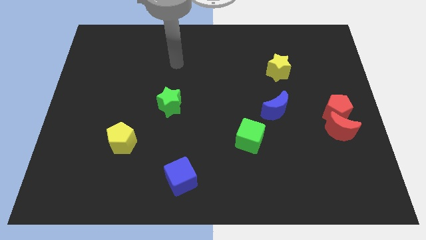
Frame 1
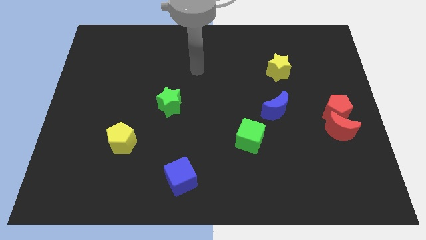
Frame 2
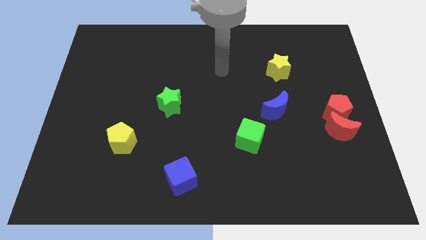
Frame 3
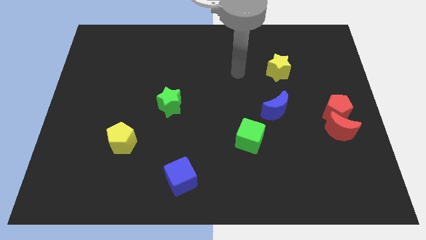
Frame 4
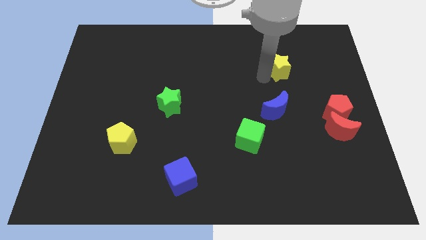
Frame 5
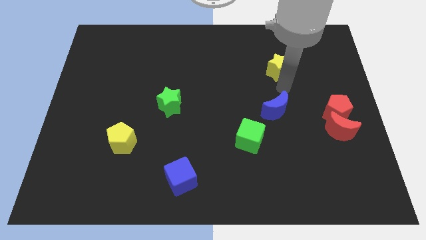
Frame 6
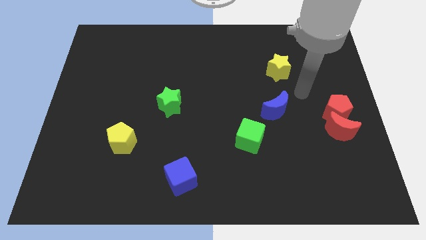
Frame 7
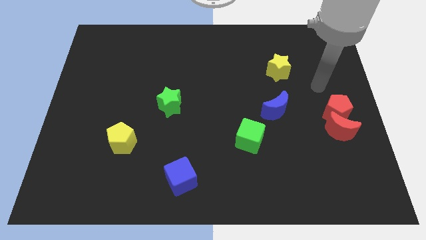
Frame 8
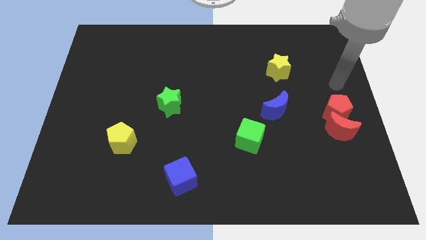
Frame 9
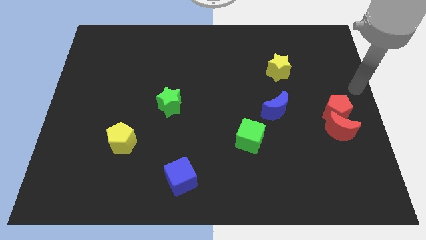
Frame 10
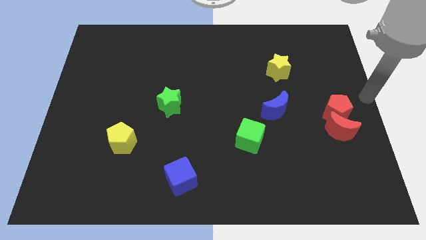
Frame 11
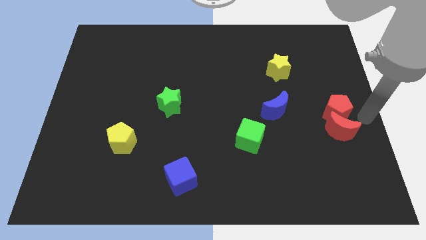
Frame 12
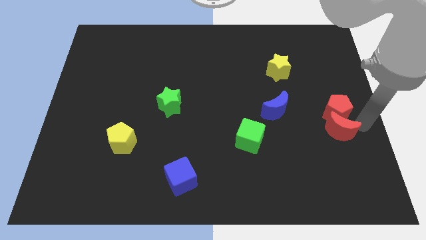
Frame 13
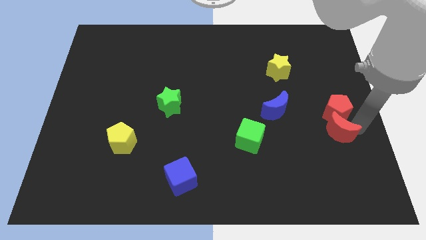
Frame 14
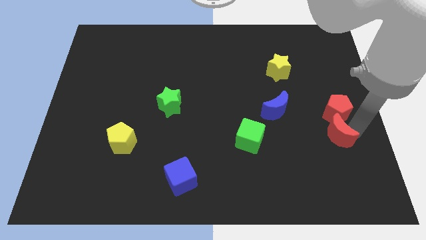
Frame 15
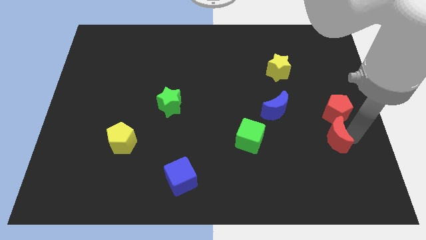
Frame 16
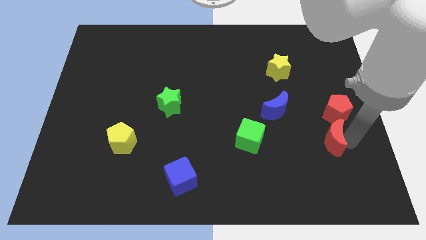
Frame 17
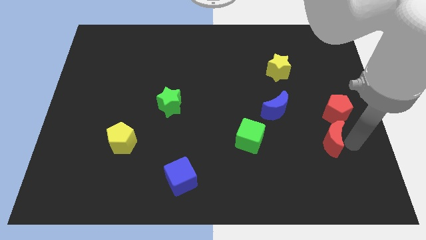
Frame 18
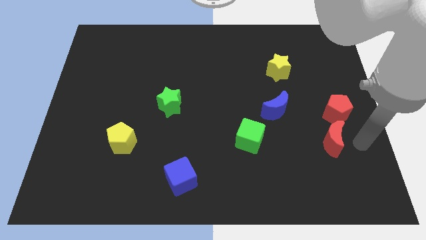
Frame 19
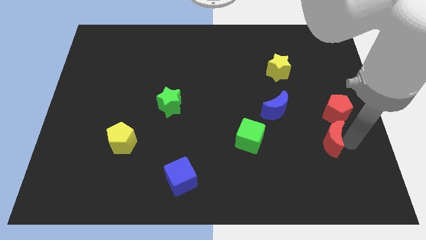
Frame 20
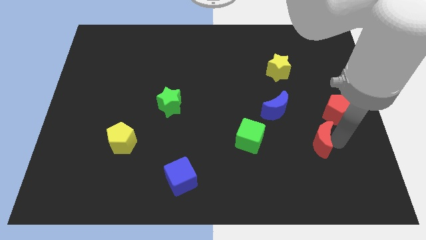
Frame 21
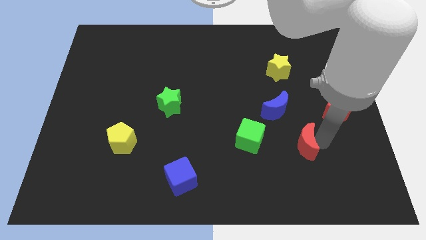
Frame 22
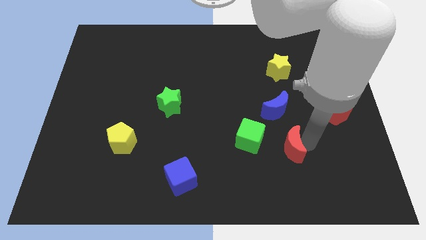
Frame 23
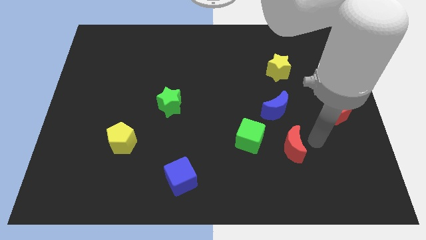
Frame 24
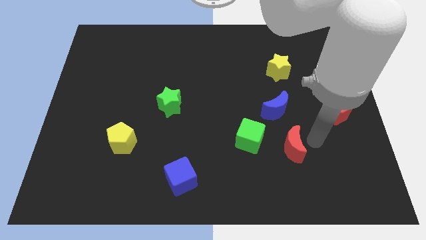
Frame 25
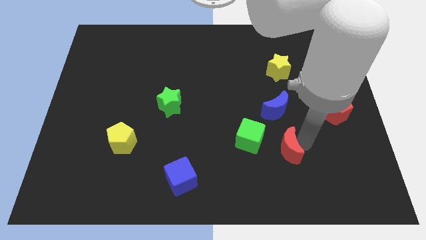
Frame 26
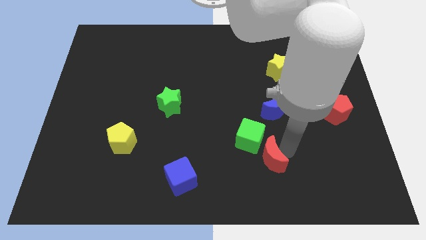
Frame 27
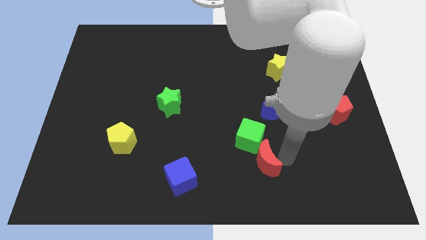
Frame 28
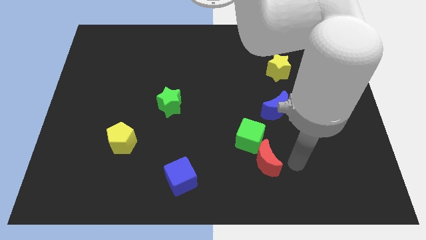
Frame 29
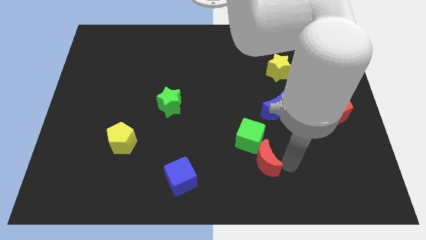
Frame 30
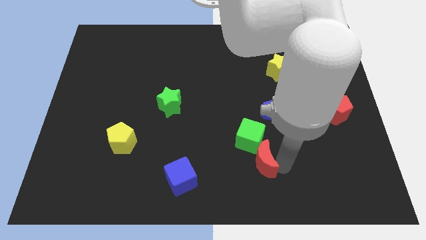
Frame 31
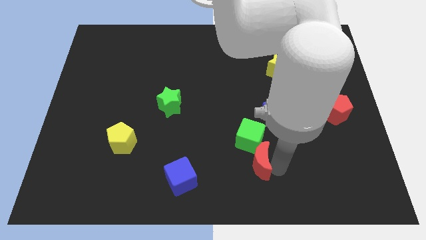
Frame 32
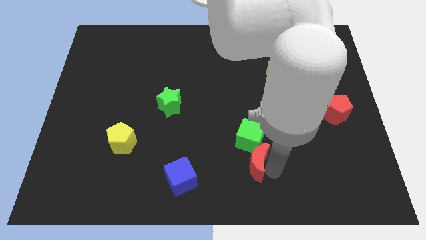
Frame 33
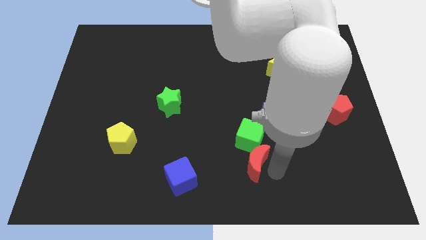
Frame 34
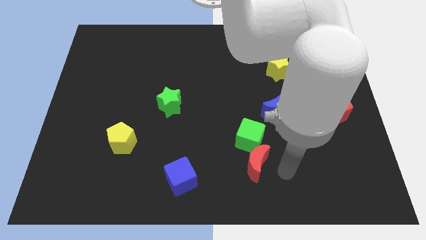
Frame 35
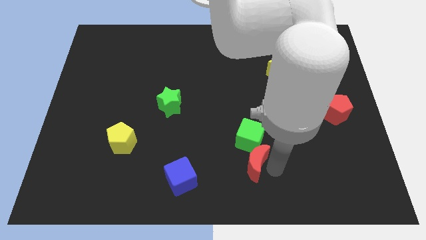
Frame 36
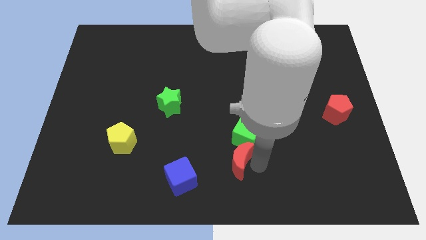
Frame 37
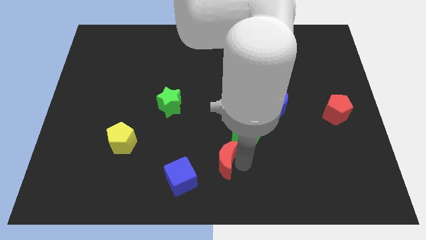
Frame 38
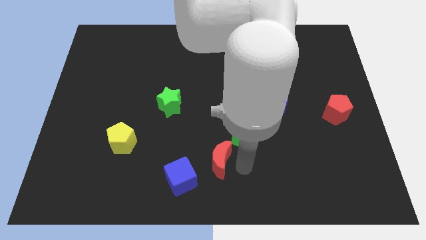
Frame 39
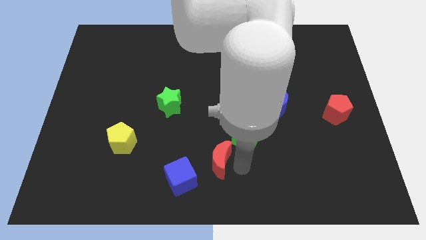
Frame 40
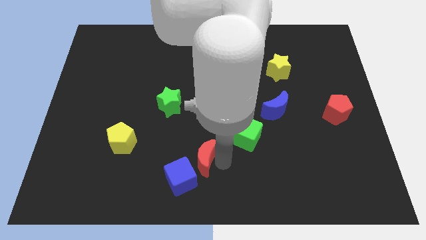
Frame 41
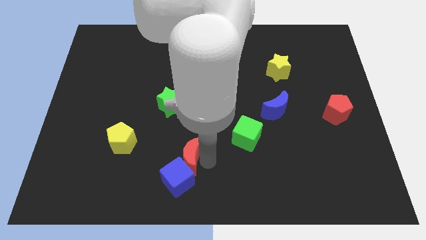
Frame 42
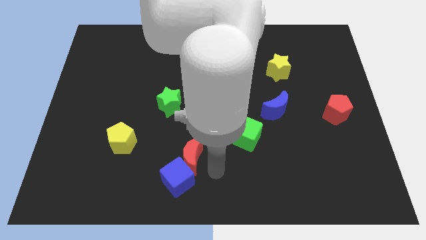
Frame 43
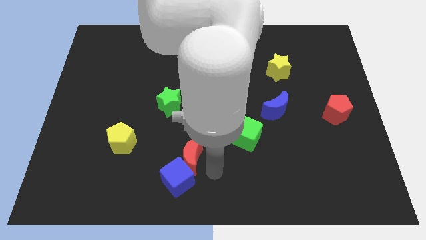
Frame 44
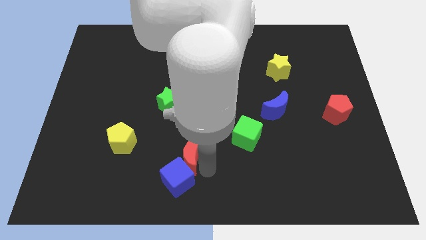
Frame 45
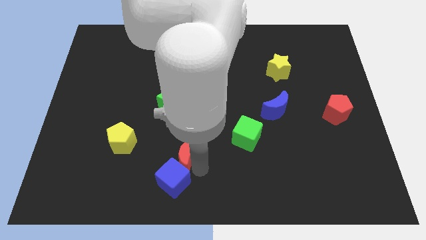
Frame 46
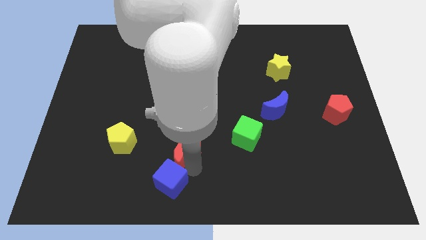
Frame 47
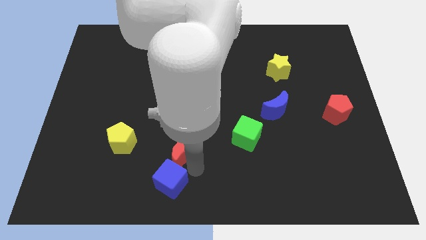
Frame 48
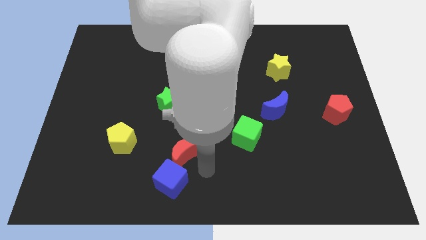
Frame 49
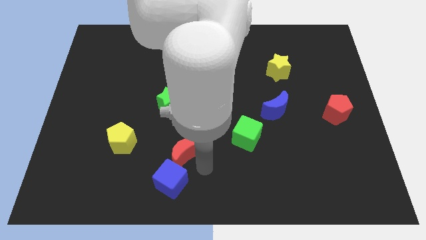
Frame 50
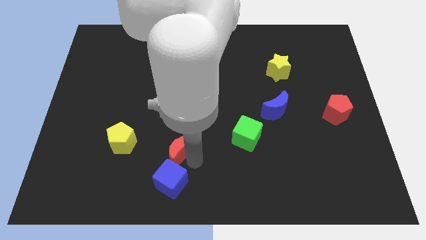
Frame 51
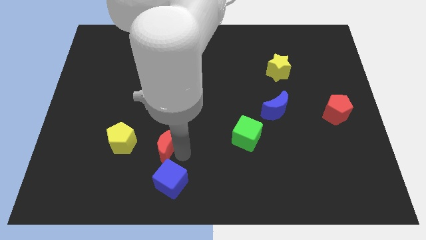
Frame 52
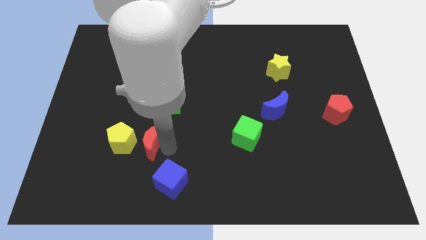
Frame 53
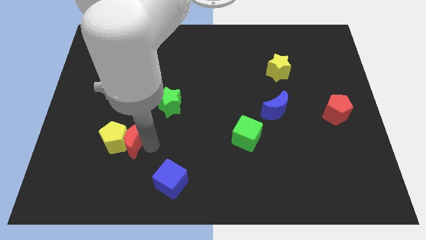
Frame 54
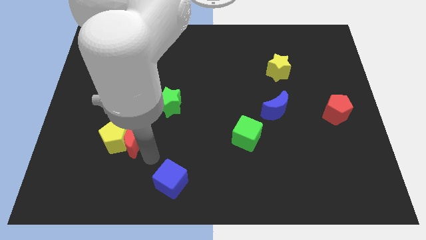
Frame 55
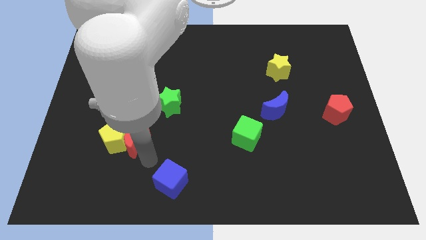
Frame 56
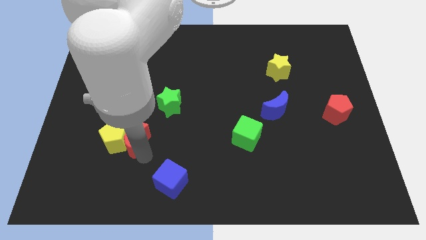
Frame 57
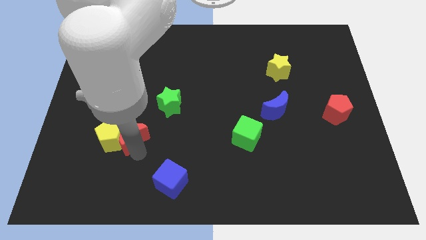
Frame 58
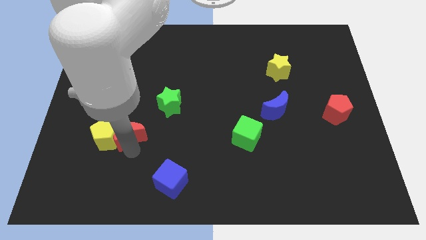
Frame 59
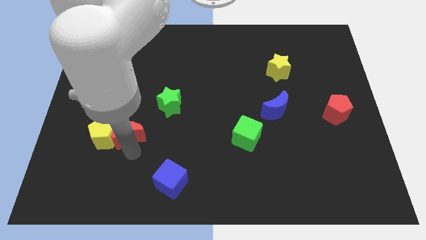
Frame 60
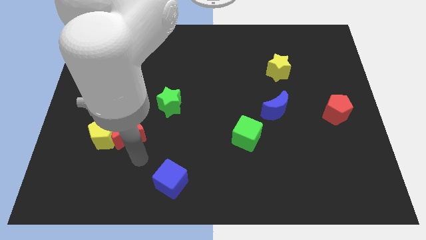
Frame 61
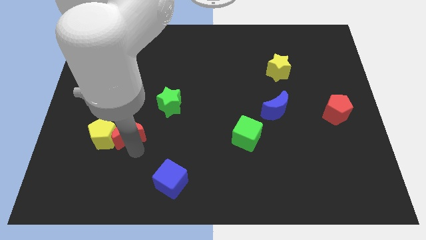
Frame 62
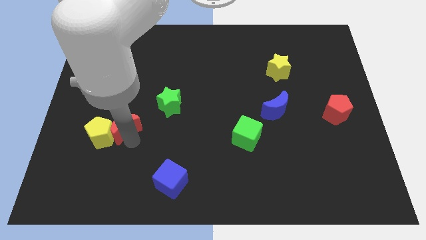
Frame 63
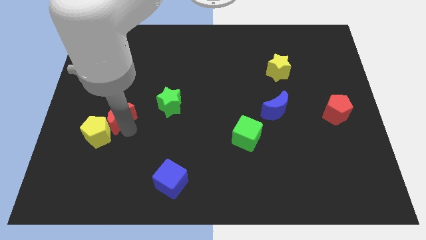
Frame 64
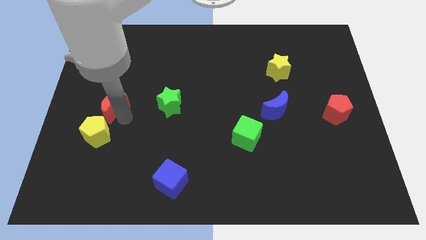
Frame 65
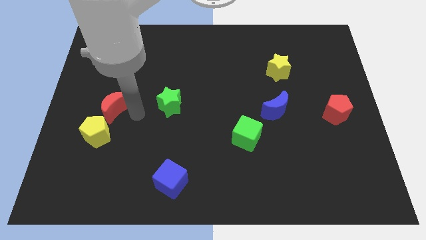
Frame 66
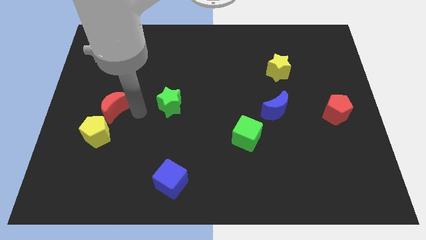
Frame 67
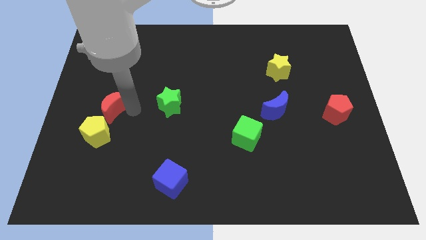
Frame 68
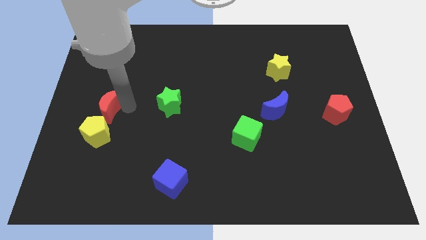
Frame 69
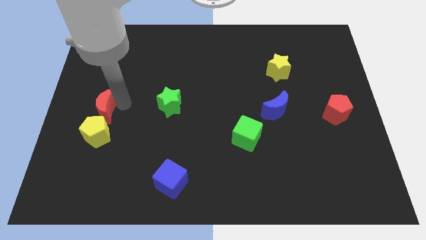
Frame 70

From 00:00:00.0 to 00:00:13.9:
move the red moon to the center left

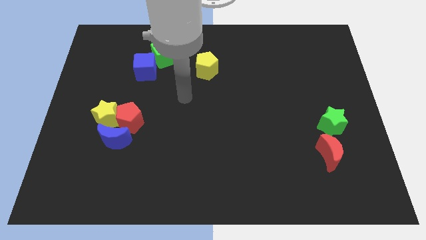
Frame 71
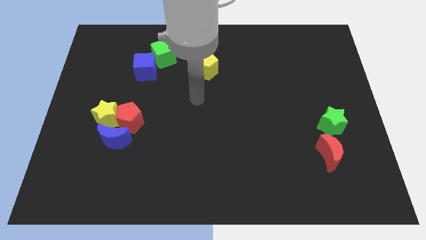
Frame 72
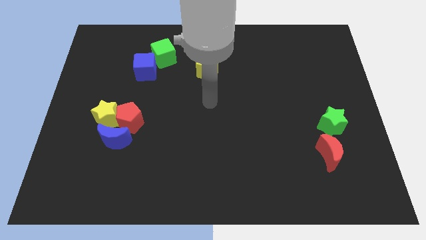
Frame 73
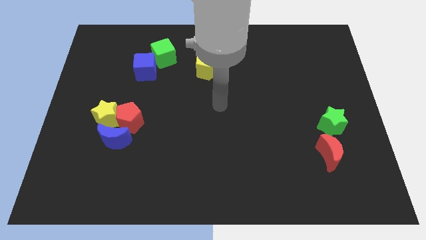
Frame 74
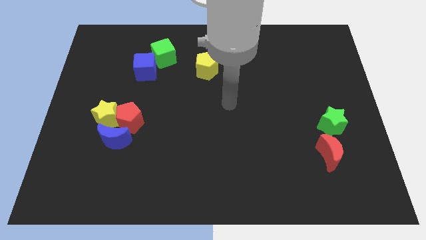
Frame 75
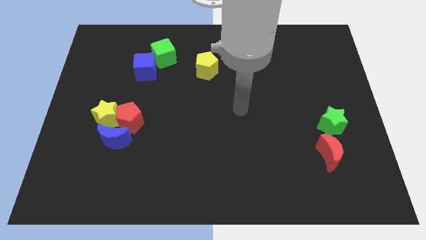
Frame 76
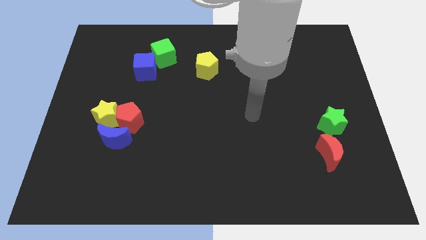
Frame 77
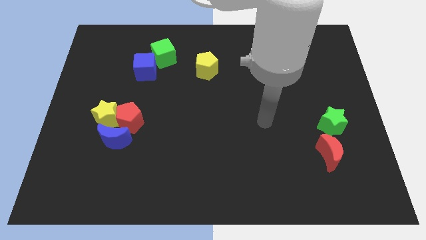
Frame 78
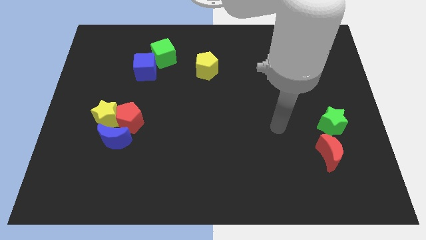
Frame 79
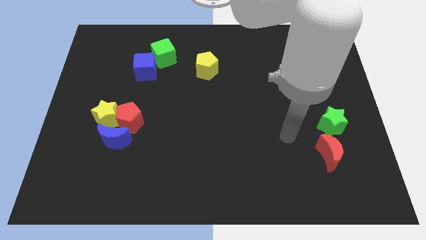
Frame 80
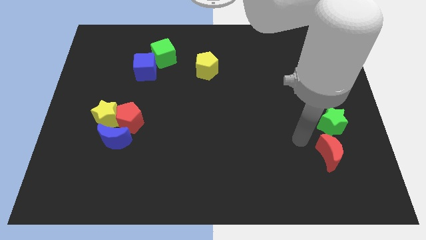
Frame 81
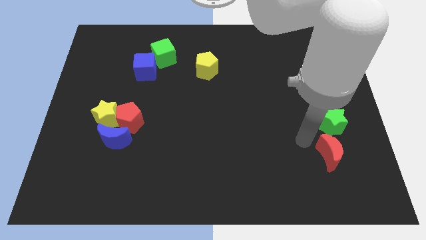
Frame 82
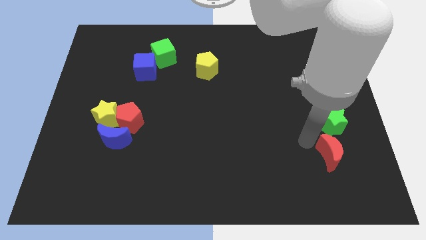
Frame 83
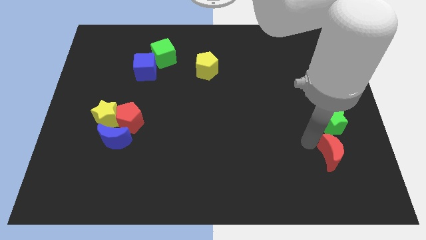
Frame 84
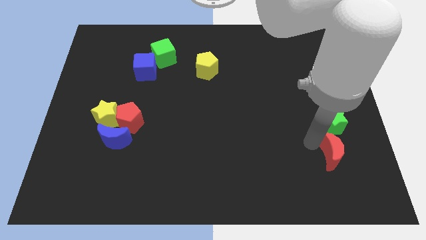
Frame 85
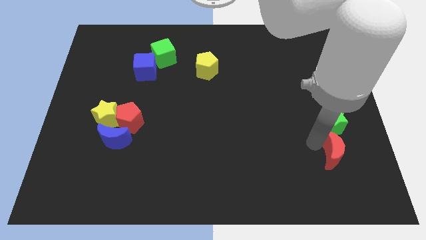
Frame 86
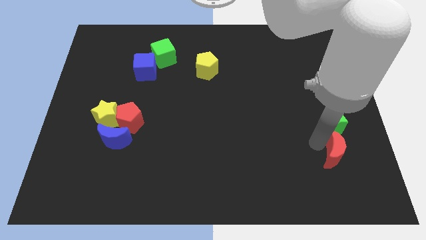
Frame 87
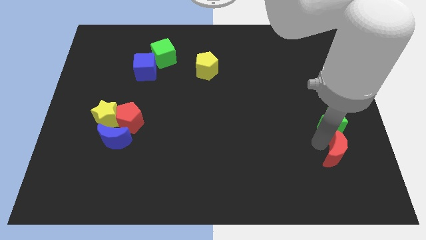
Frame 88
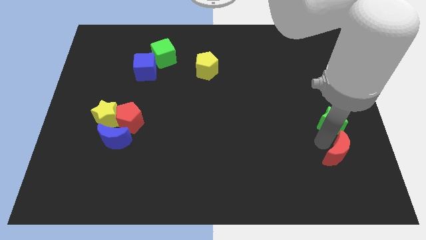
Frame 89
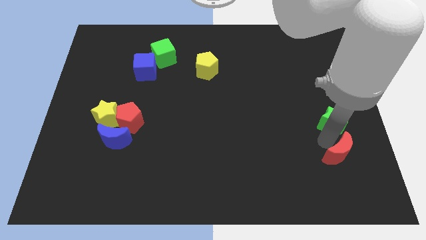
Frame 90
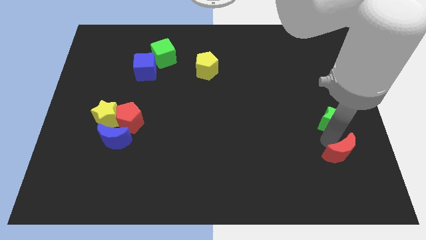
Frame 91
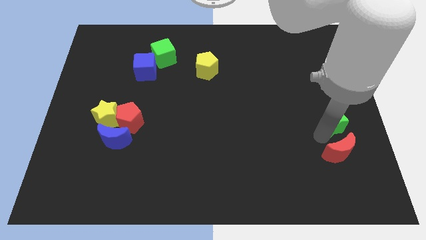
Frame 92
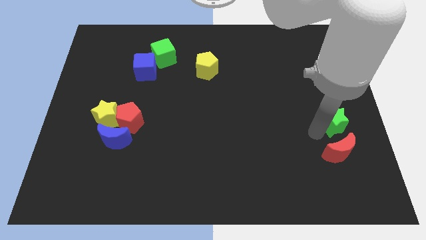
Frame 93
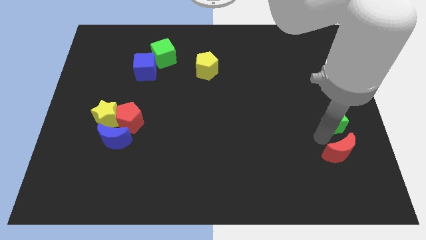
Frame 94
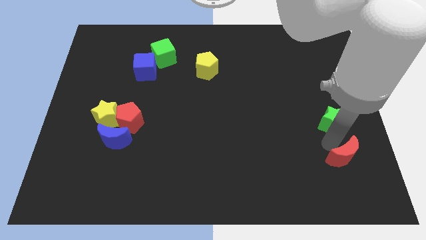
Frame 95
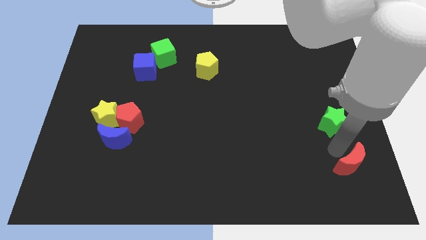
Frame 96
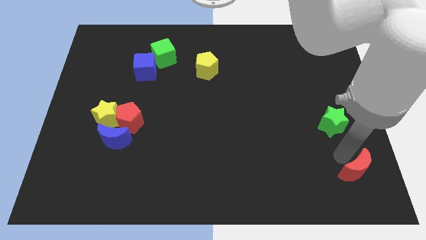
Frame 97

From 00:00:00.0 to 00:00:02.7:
slide the red moon to the bottom right
